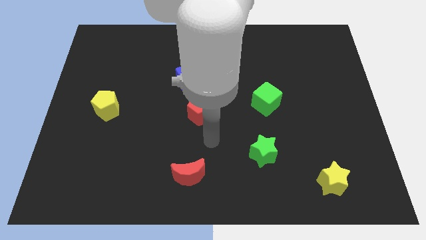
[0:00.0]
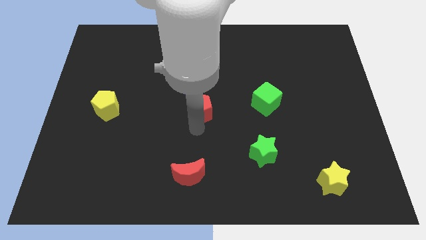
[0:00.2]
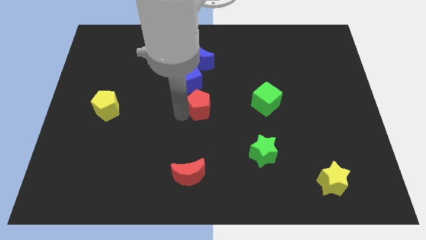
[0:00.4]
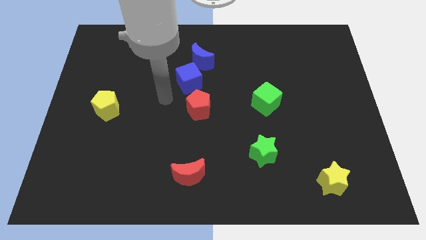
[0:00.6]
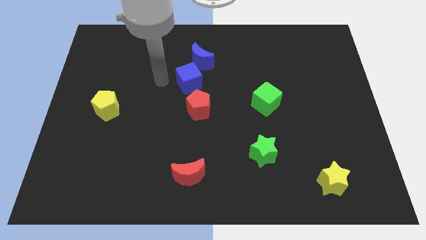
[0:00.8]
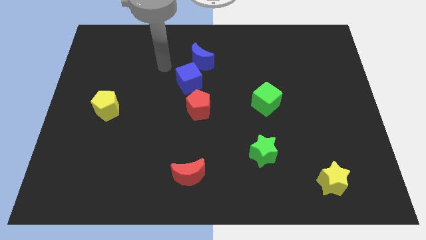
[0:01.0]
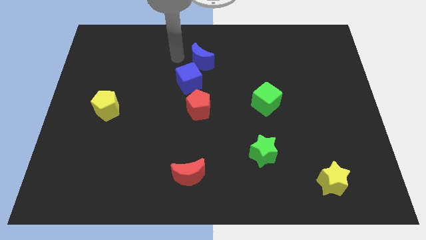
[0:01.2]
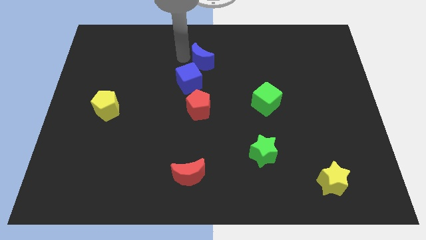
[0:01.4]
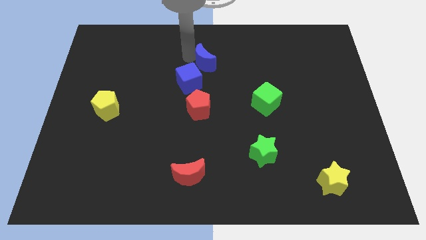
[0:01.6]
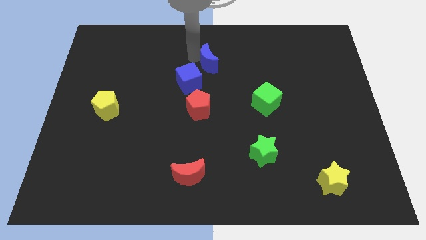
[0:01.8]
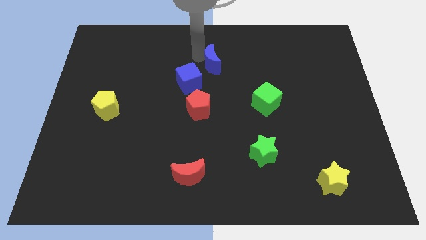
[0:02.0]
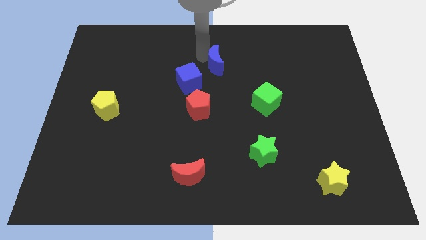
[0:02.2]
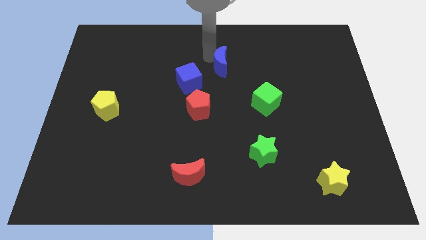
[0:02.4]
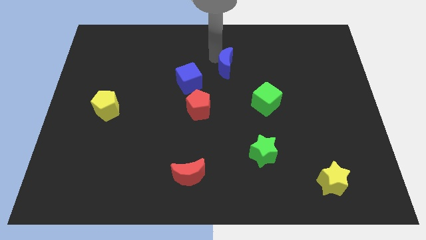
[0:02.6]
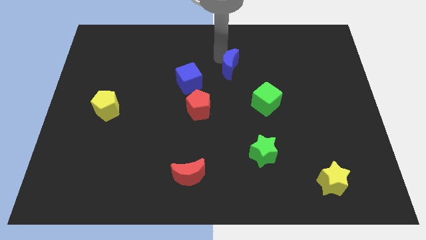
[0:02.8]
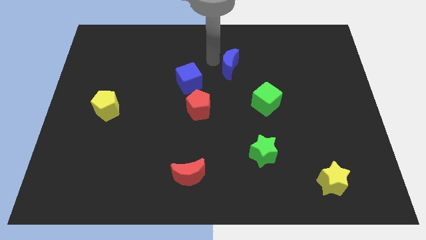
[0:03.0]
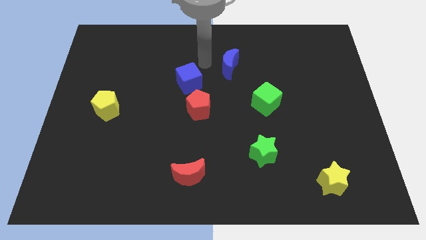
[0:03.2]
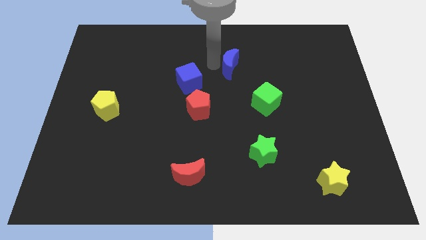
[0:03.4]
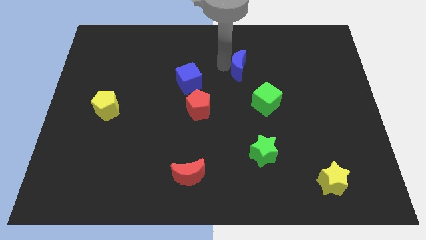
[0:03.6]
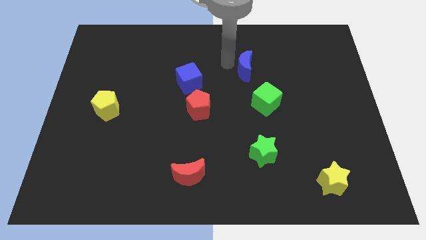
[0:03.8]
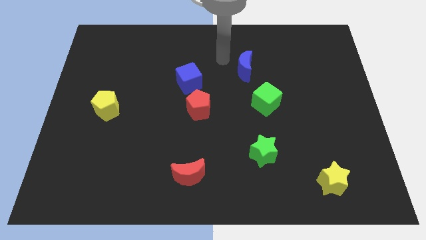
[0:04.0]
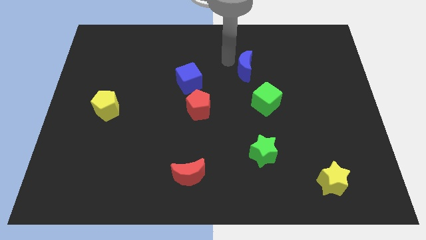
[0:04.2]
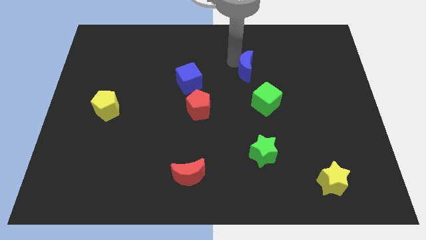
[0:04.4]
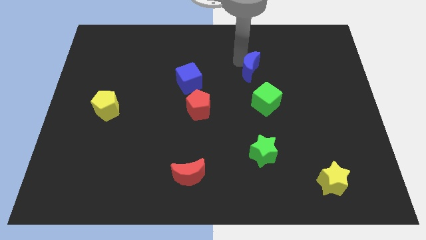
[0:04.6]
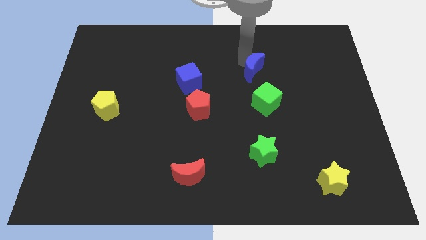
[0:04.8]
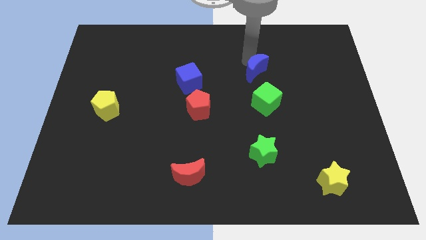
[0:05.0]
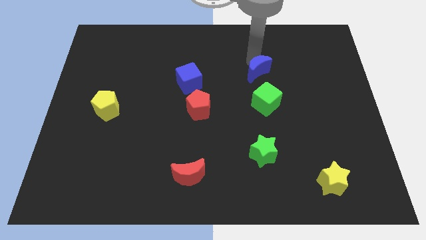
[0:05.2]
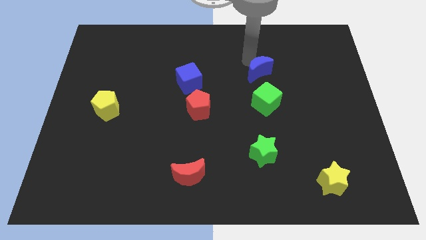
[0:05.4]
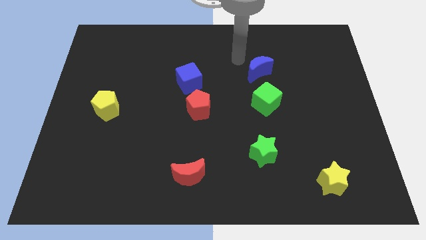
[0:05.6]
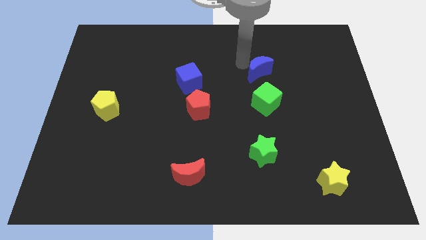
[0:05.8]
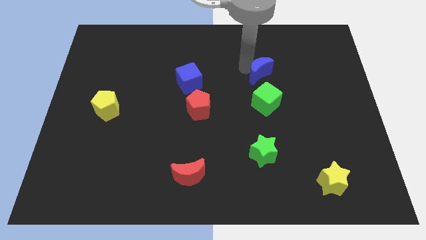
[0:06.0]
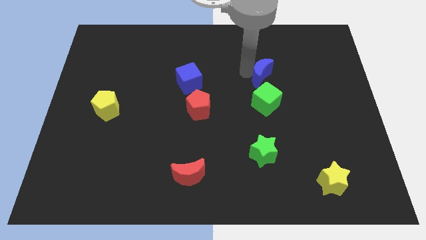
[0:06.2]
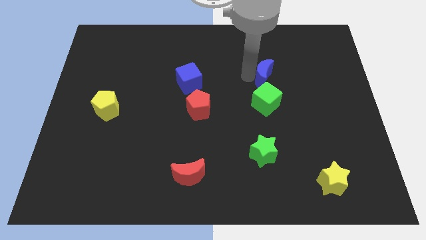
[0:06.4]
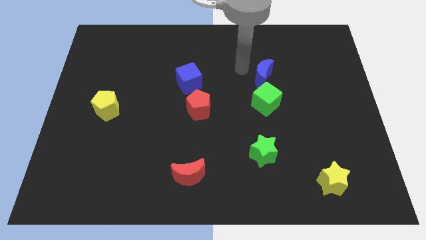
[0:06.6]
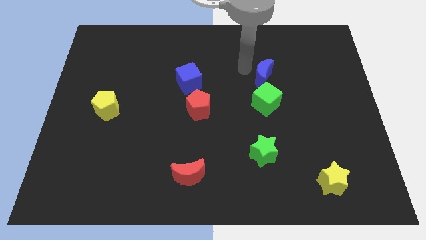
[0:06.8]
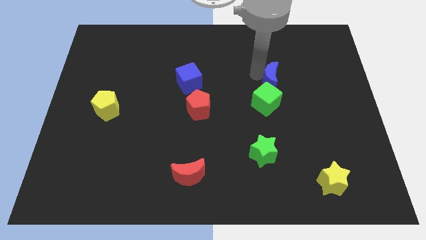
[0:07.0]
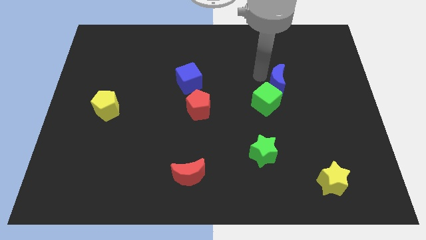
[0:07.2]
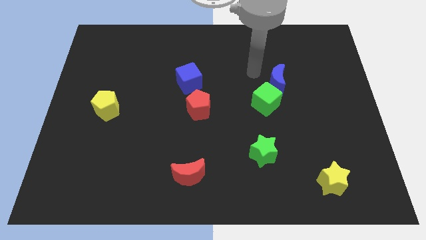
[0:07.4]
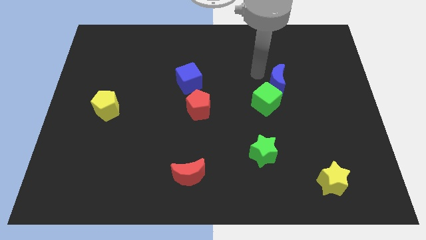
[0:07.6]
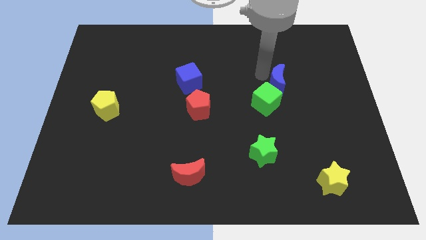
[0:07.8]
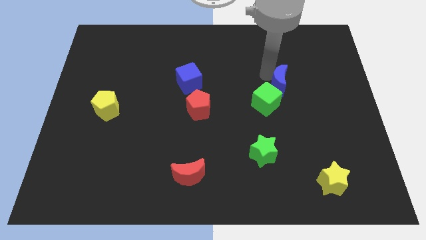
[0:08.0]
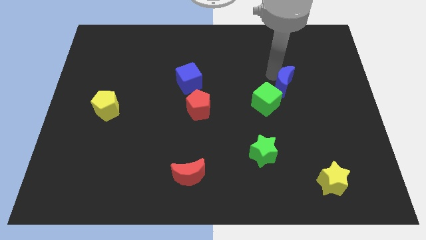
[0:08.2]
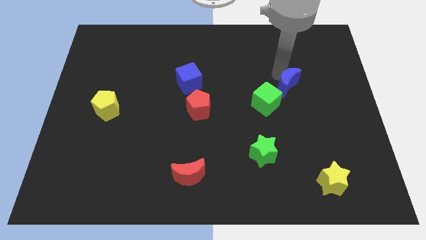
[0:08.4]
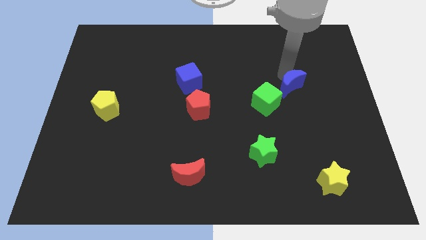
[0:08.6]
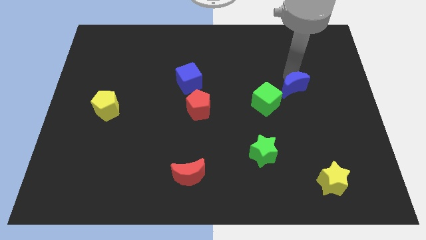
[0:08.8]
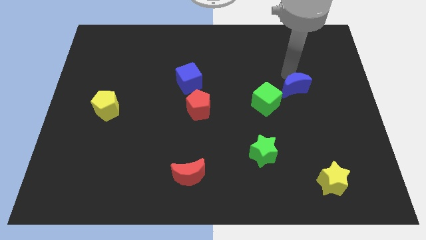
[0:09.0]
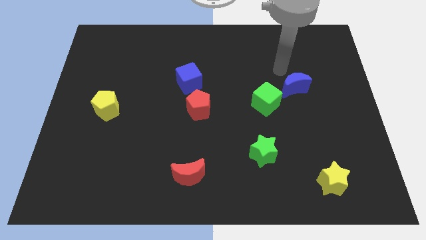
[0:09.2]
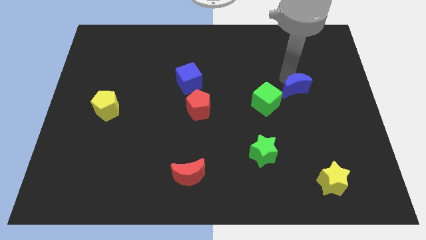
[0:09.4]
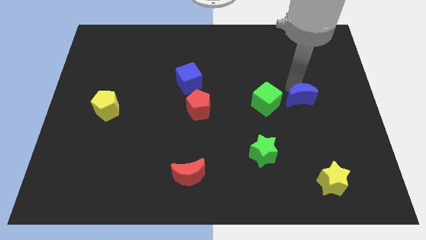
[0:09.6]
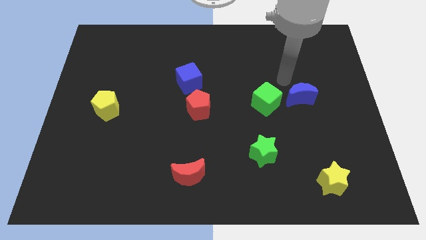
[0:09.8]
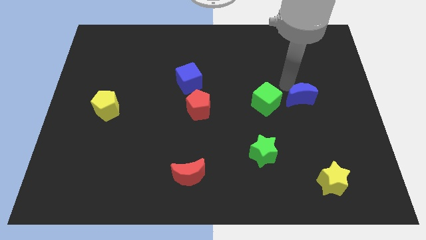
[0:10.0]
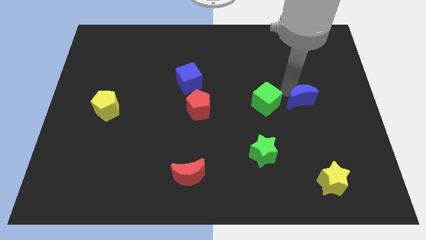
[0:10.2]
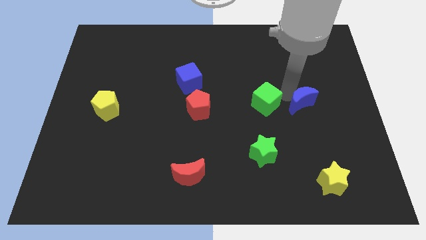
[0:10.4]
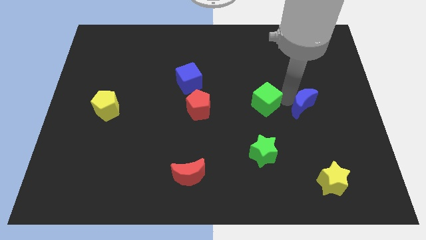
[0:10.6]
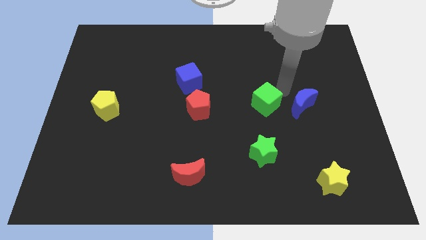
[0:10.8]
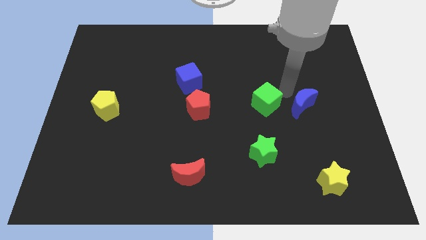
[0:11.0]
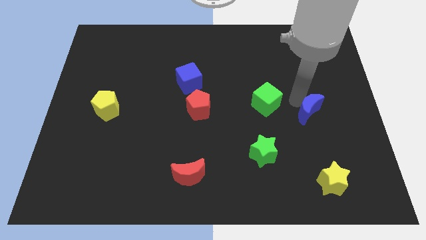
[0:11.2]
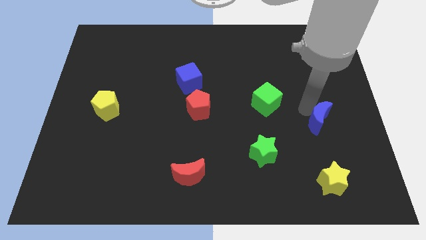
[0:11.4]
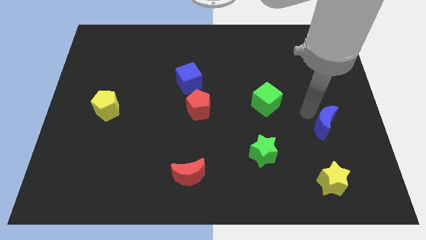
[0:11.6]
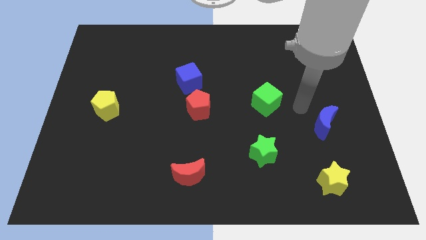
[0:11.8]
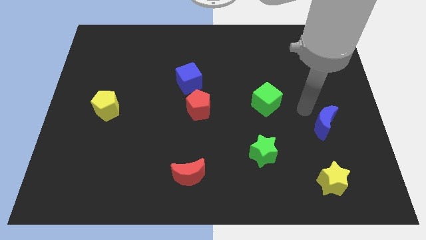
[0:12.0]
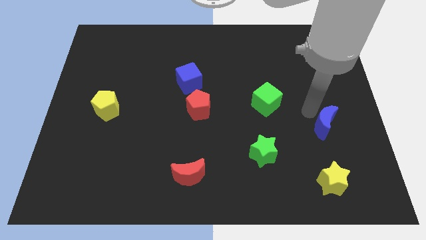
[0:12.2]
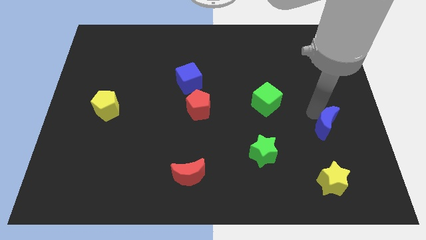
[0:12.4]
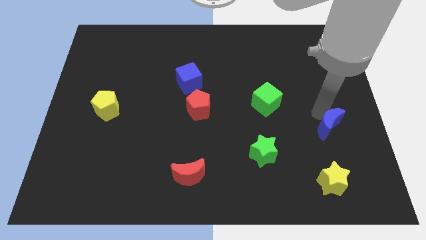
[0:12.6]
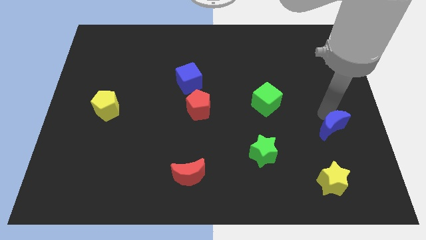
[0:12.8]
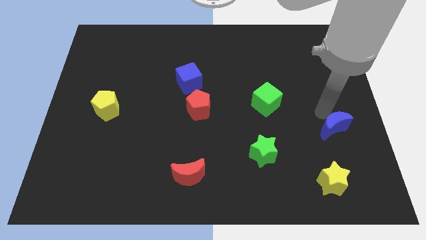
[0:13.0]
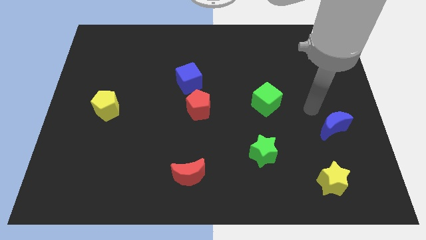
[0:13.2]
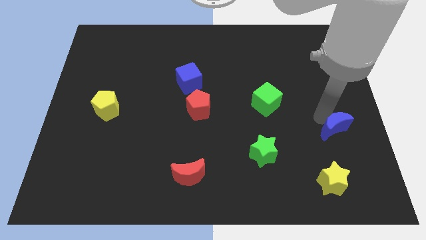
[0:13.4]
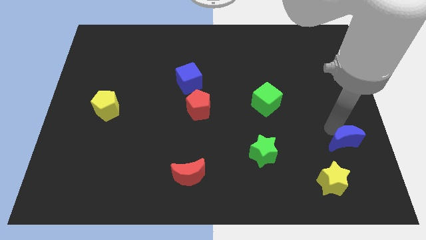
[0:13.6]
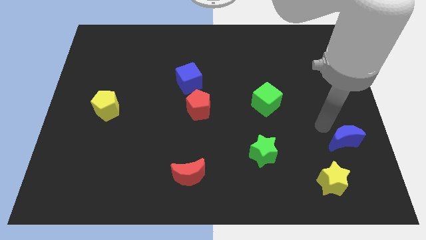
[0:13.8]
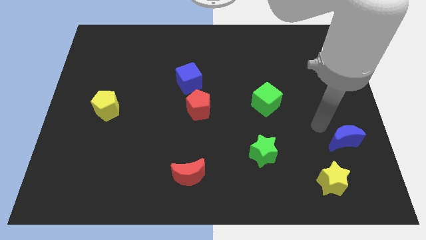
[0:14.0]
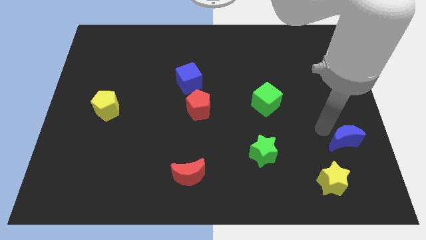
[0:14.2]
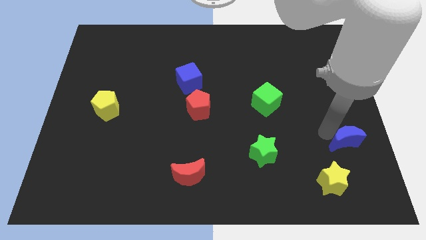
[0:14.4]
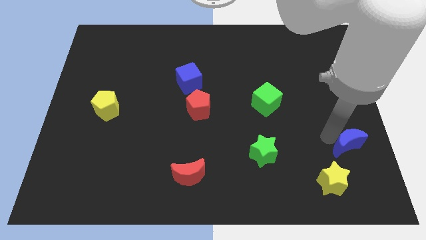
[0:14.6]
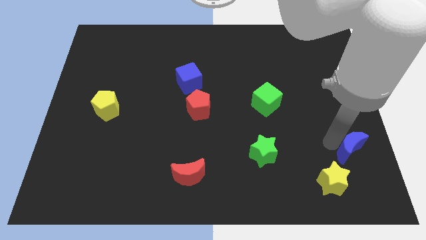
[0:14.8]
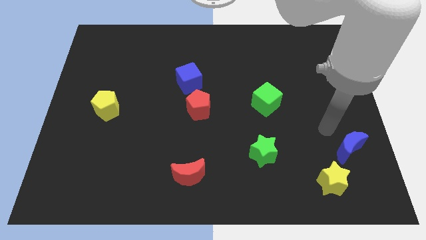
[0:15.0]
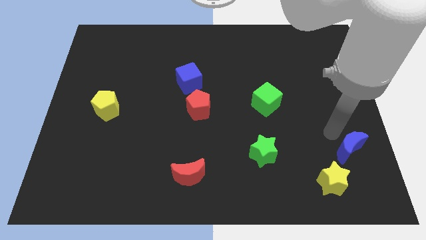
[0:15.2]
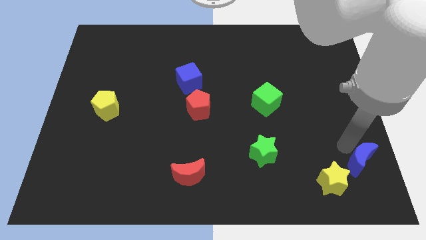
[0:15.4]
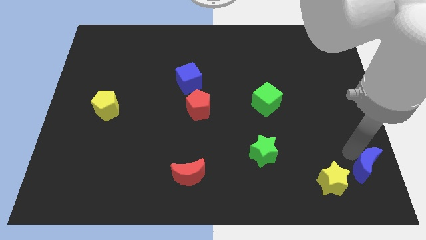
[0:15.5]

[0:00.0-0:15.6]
put the blue moon to the bottom right corner
